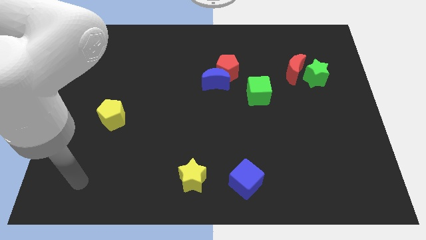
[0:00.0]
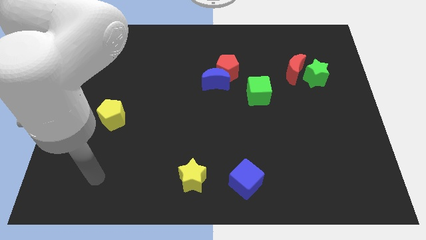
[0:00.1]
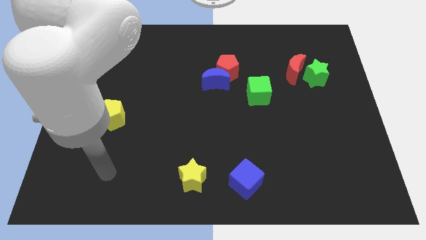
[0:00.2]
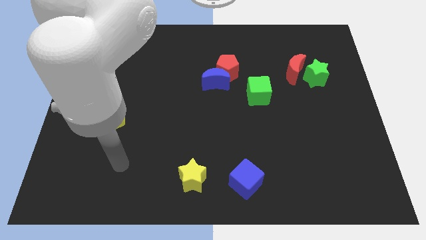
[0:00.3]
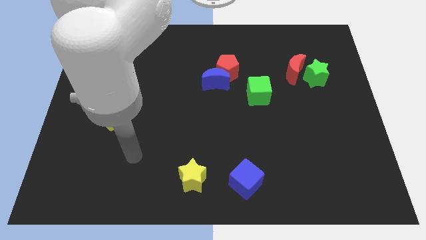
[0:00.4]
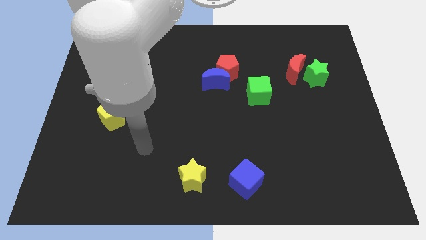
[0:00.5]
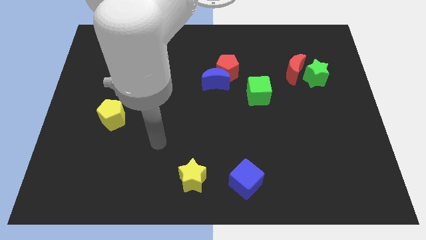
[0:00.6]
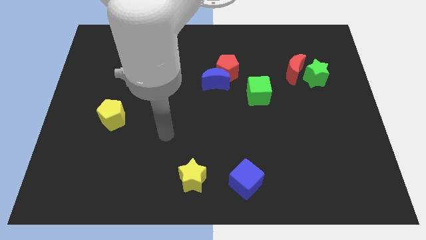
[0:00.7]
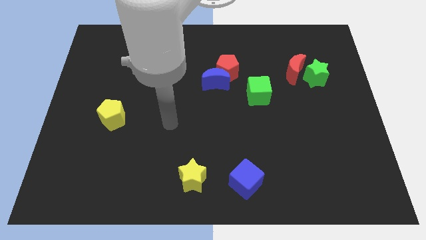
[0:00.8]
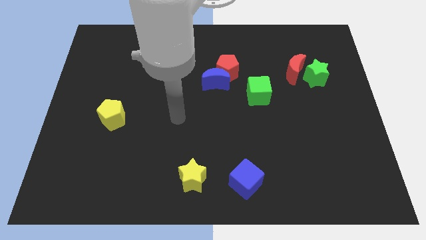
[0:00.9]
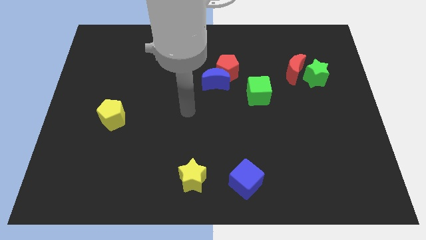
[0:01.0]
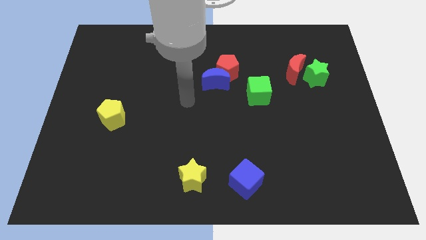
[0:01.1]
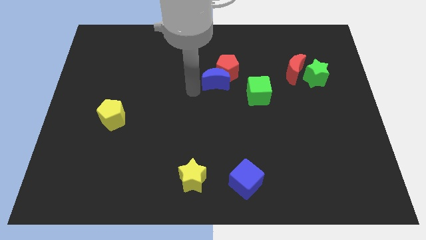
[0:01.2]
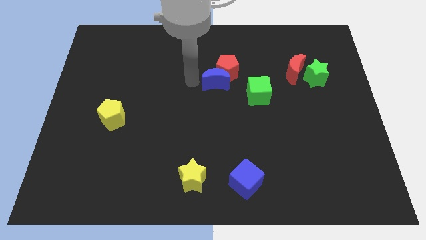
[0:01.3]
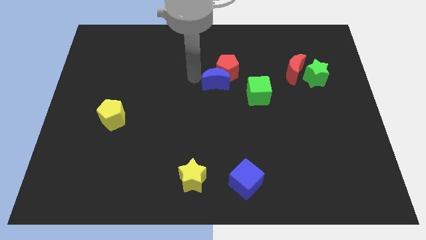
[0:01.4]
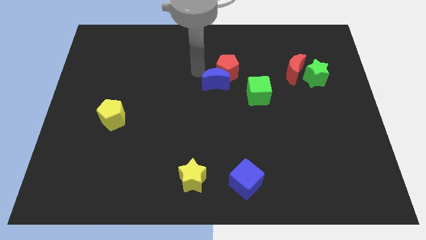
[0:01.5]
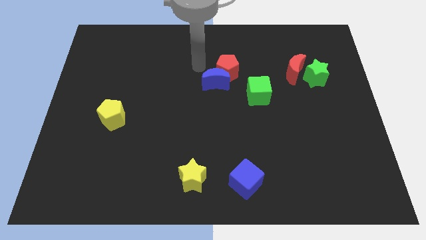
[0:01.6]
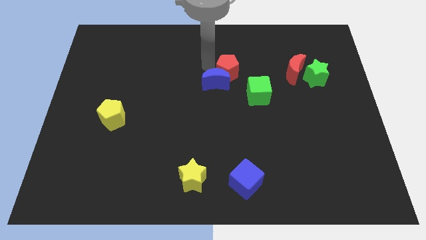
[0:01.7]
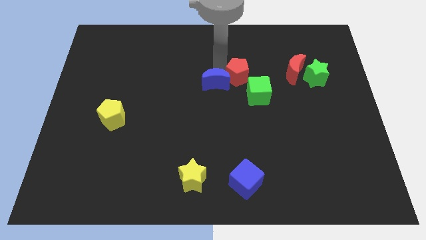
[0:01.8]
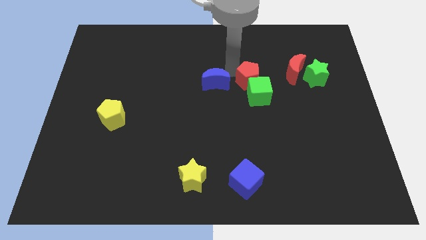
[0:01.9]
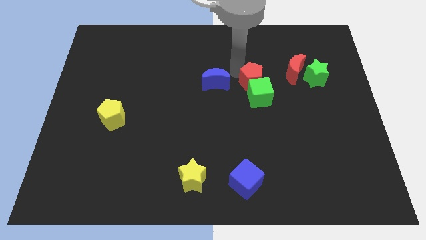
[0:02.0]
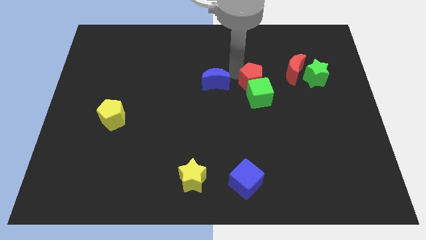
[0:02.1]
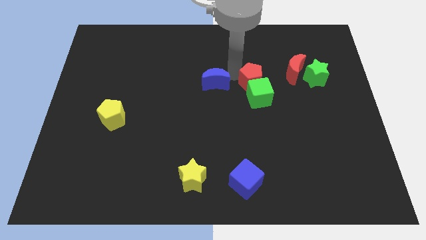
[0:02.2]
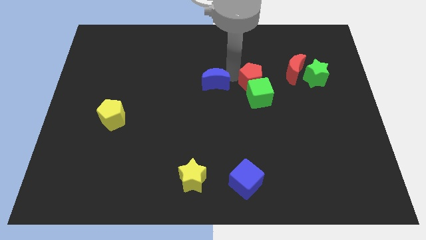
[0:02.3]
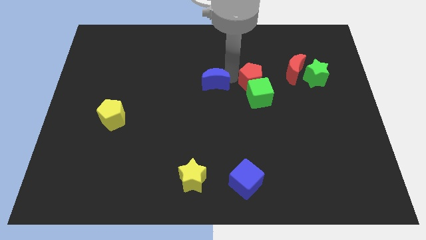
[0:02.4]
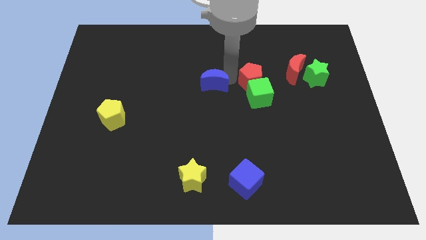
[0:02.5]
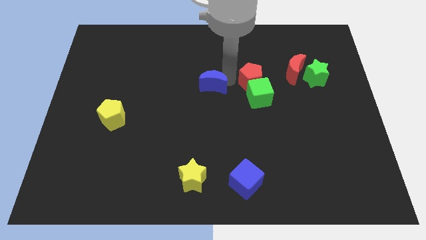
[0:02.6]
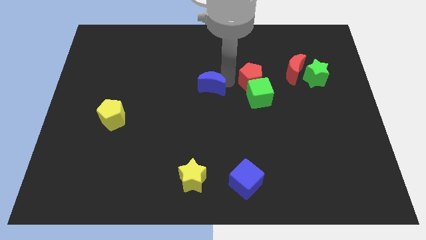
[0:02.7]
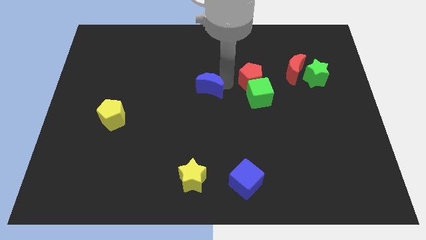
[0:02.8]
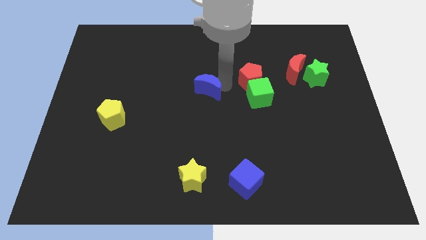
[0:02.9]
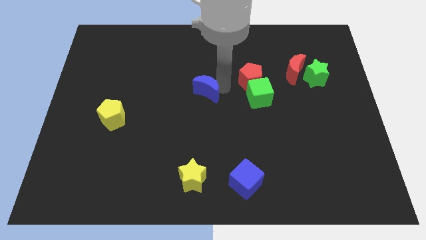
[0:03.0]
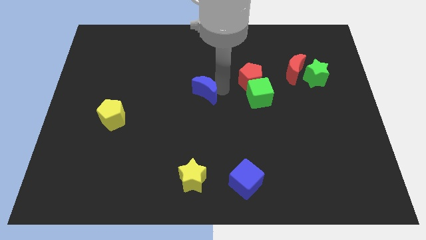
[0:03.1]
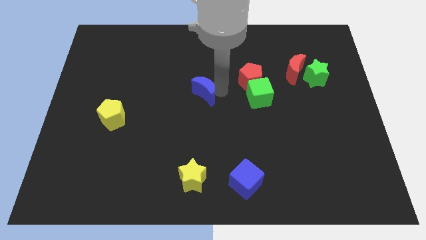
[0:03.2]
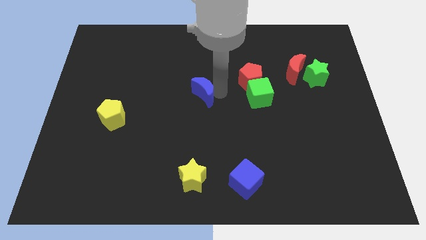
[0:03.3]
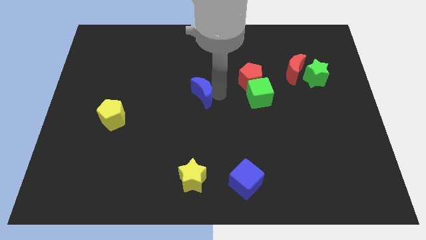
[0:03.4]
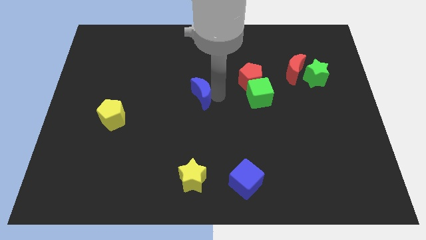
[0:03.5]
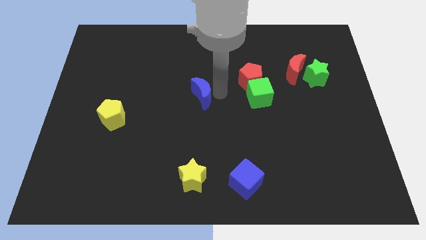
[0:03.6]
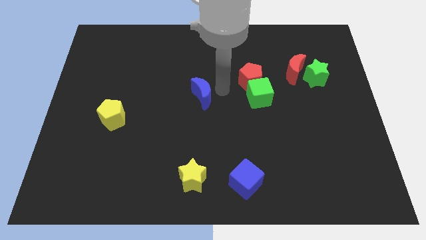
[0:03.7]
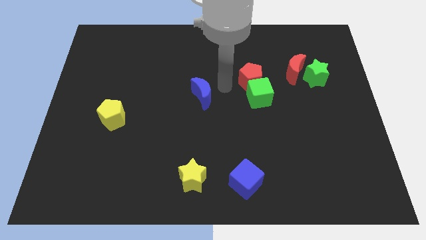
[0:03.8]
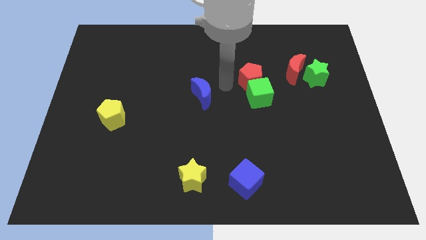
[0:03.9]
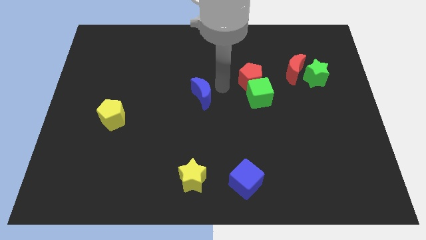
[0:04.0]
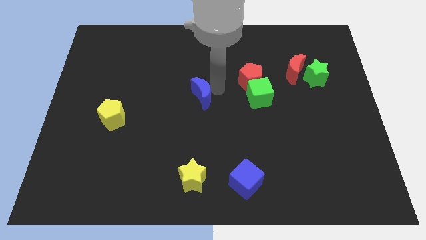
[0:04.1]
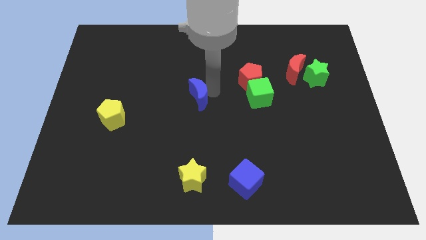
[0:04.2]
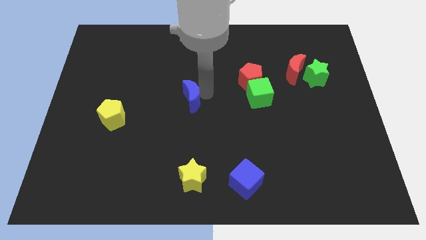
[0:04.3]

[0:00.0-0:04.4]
push the blue moon downwards and left a little bit

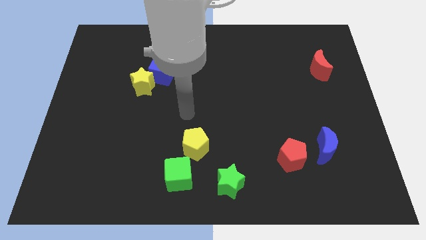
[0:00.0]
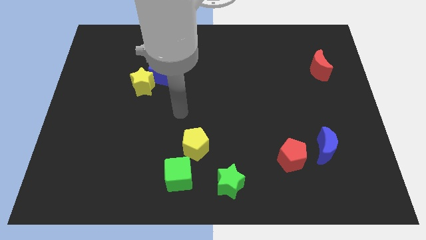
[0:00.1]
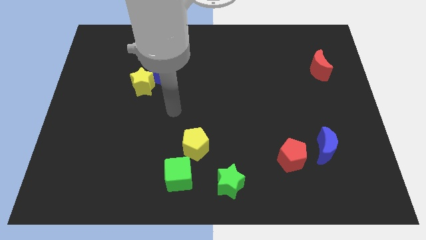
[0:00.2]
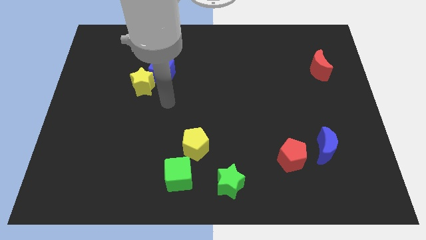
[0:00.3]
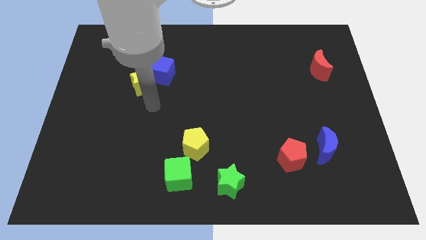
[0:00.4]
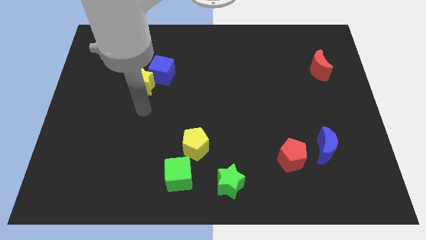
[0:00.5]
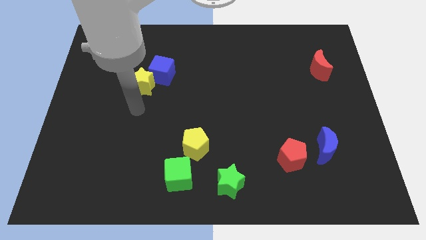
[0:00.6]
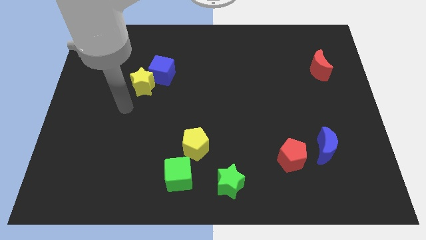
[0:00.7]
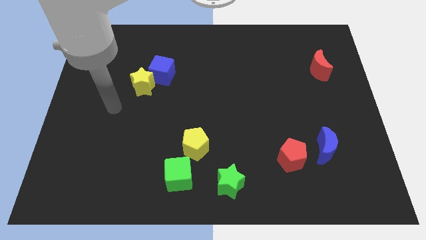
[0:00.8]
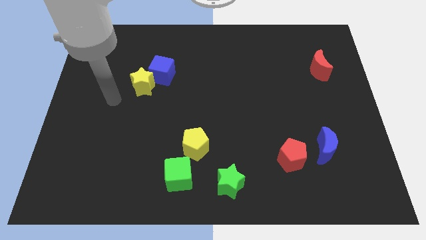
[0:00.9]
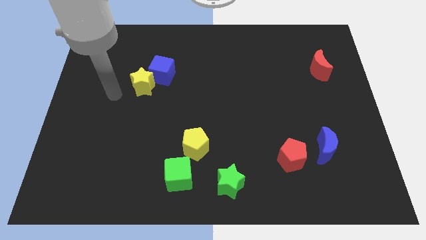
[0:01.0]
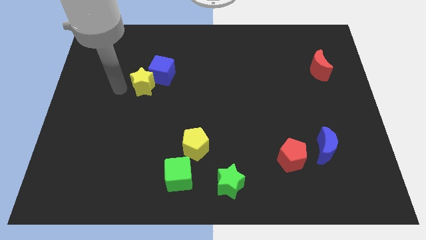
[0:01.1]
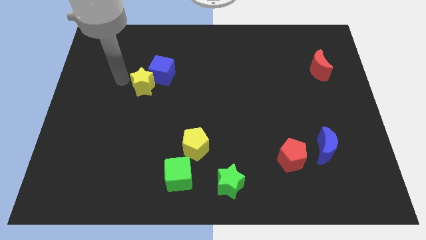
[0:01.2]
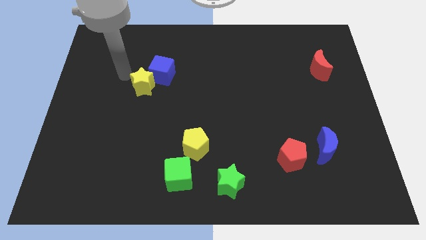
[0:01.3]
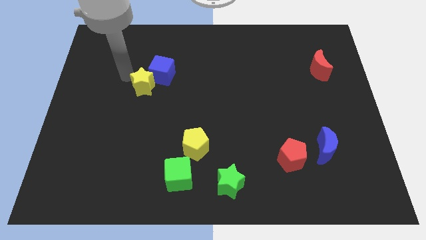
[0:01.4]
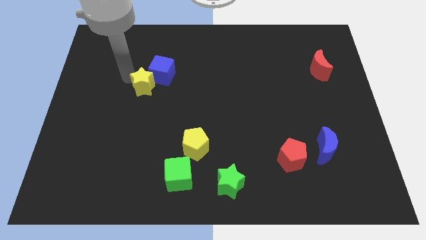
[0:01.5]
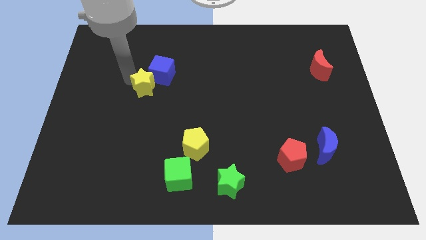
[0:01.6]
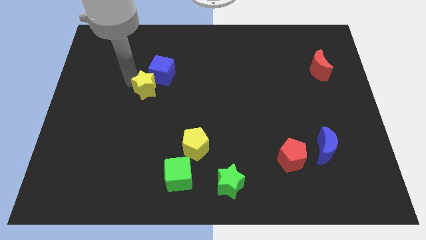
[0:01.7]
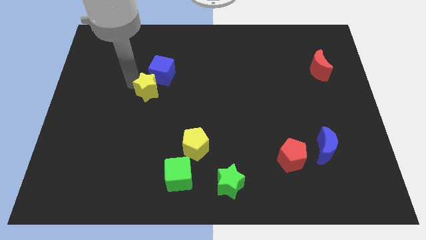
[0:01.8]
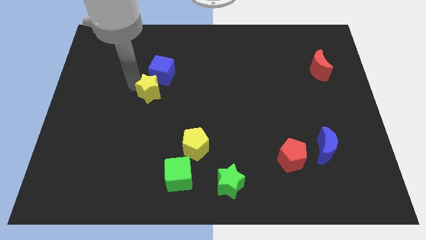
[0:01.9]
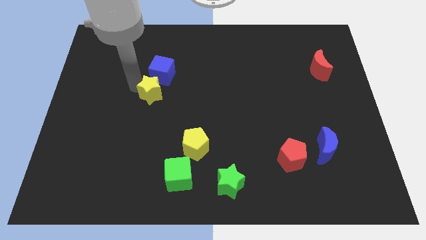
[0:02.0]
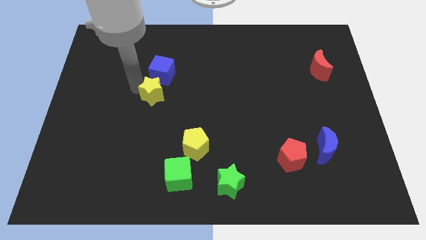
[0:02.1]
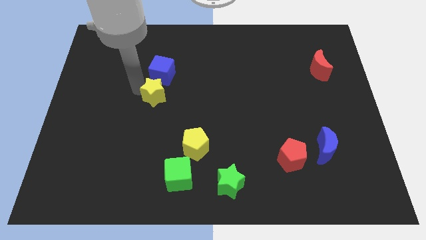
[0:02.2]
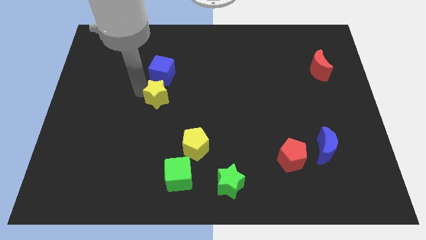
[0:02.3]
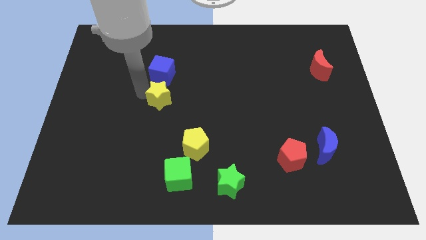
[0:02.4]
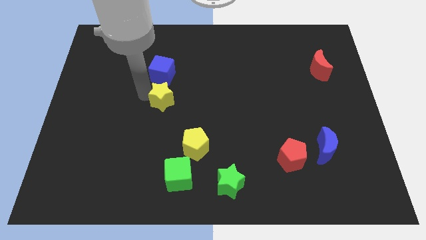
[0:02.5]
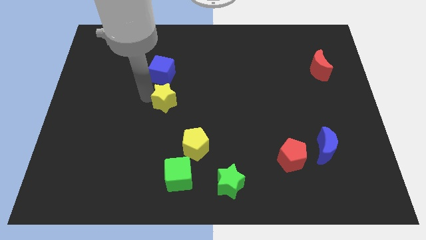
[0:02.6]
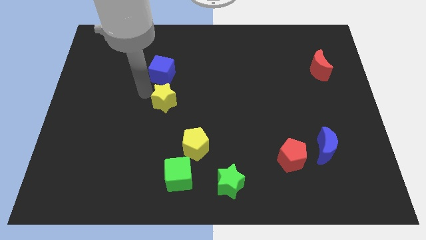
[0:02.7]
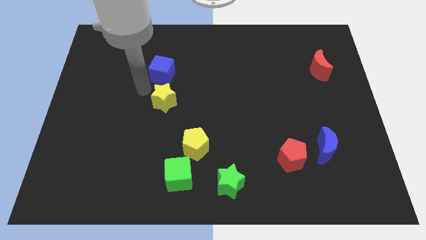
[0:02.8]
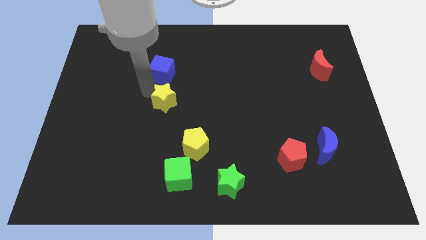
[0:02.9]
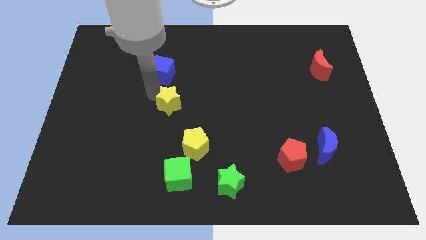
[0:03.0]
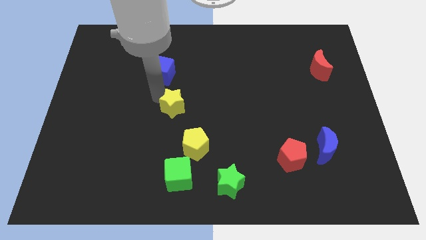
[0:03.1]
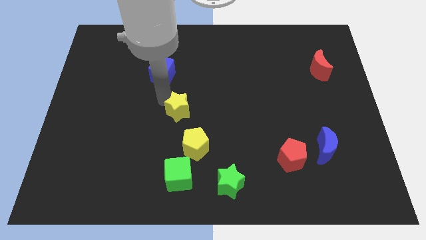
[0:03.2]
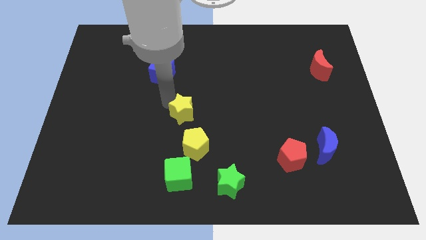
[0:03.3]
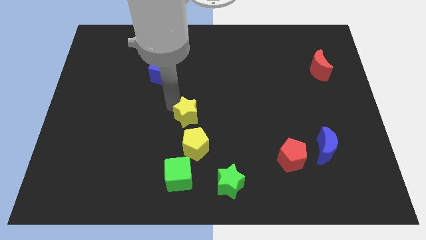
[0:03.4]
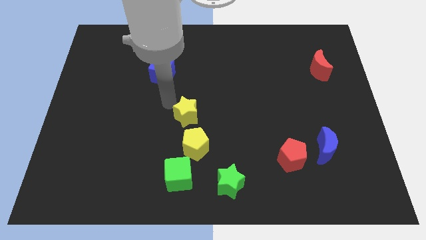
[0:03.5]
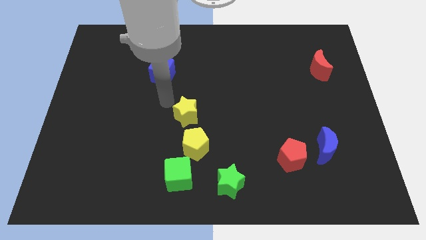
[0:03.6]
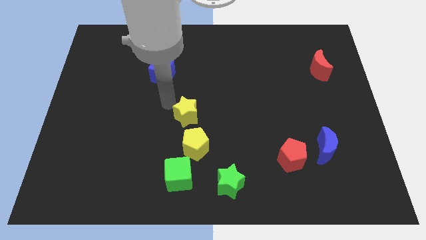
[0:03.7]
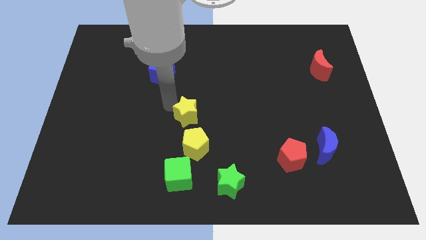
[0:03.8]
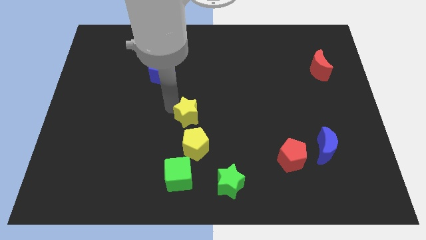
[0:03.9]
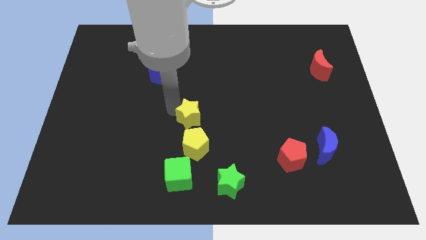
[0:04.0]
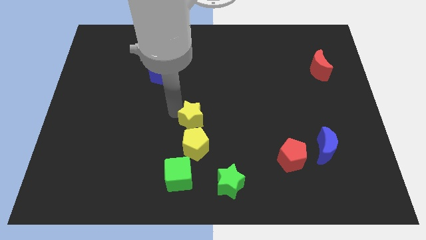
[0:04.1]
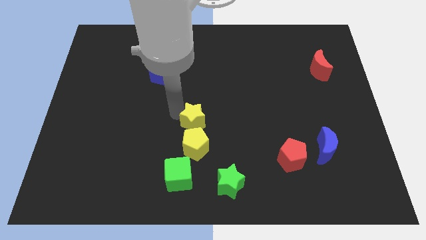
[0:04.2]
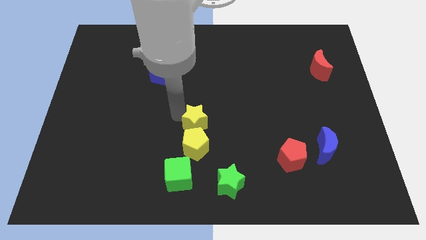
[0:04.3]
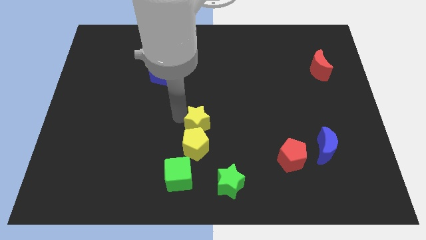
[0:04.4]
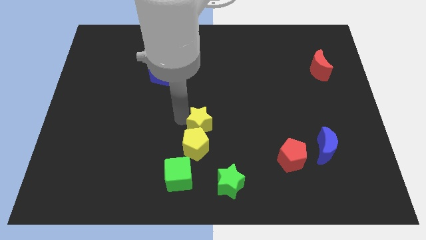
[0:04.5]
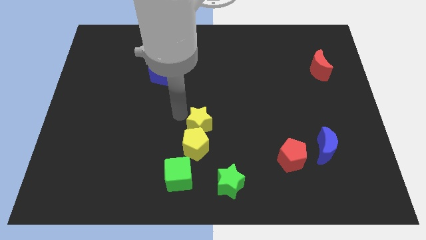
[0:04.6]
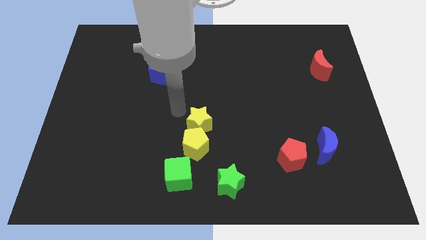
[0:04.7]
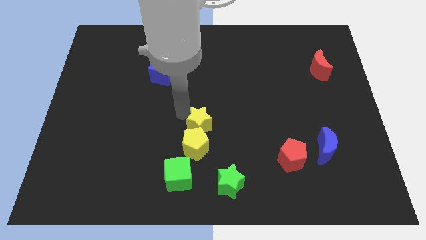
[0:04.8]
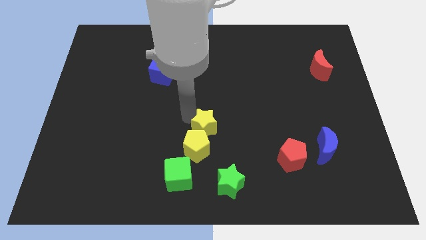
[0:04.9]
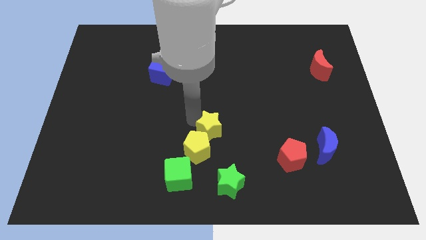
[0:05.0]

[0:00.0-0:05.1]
slide the yellow star down and to the right diagonally
